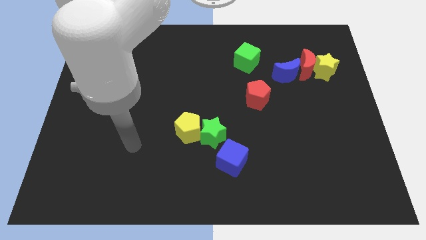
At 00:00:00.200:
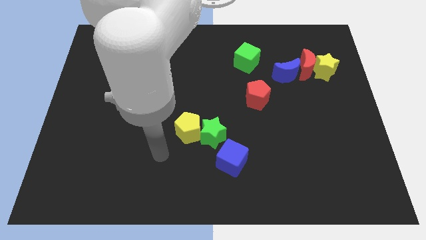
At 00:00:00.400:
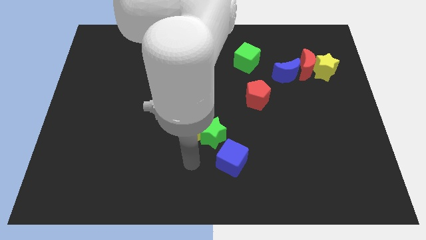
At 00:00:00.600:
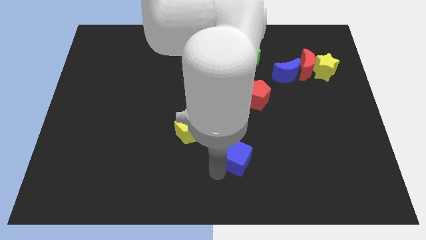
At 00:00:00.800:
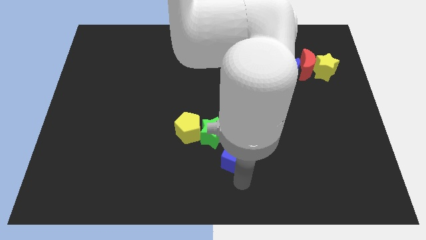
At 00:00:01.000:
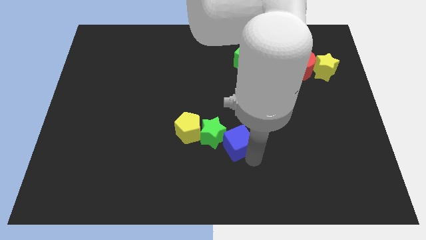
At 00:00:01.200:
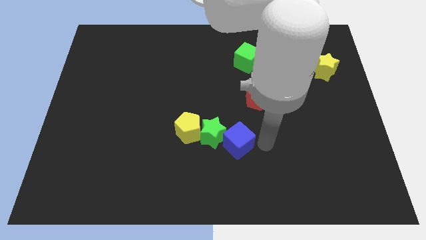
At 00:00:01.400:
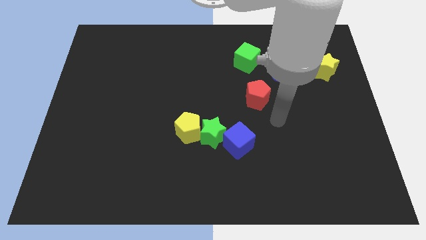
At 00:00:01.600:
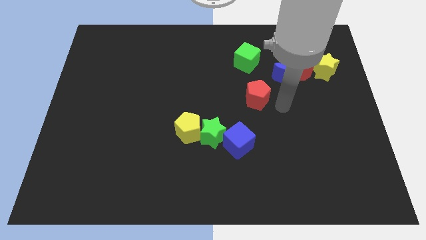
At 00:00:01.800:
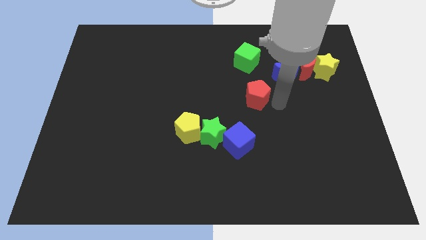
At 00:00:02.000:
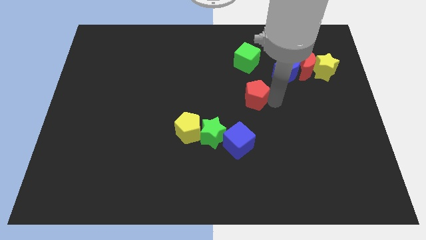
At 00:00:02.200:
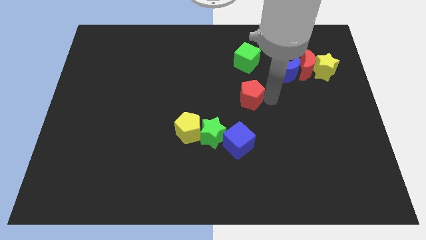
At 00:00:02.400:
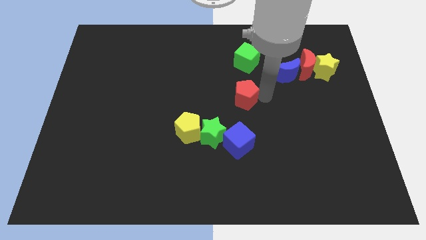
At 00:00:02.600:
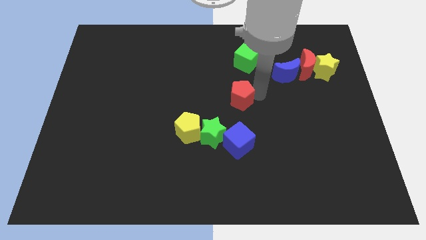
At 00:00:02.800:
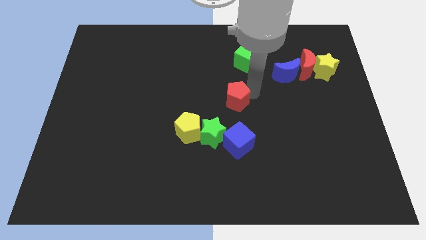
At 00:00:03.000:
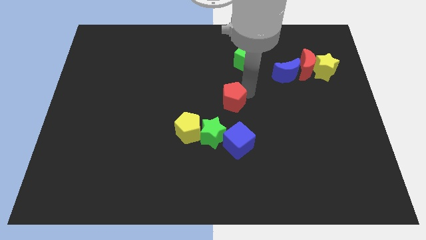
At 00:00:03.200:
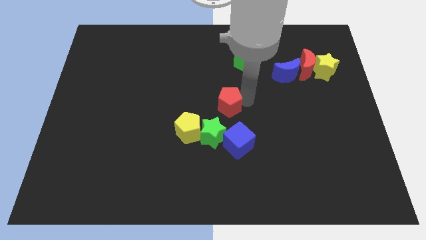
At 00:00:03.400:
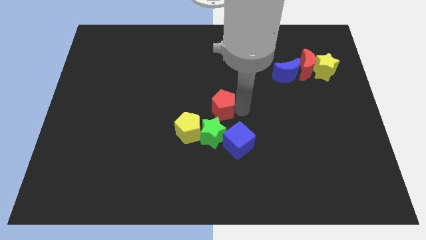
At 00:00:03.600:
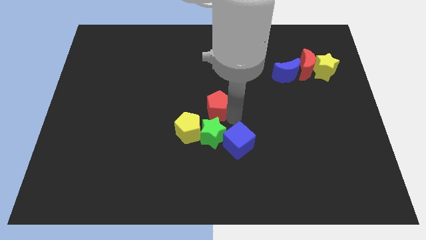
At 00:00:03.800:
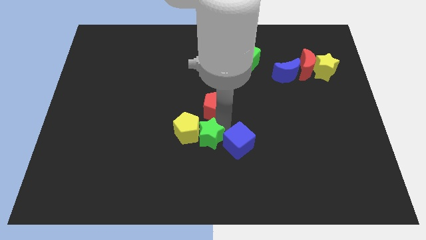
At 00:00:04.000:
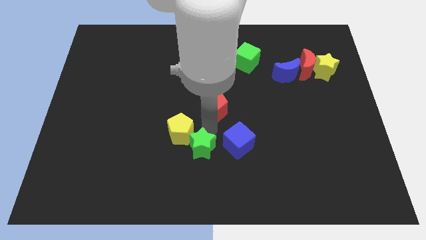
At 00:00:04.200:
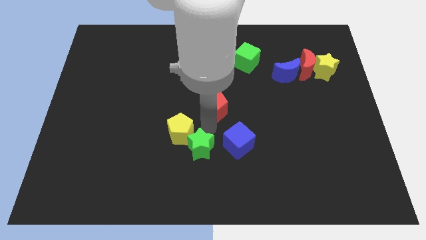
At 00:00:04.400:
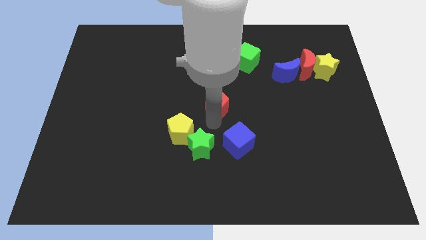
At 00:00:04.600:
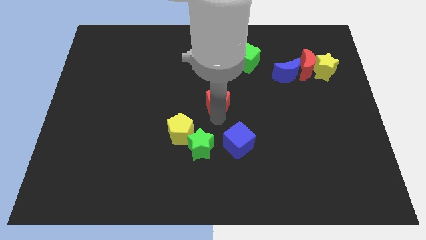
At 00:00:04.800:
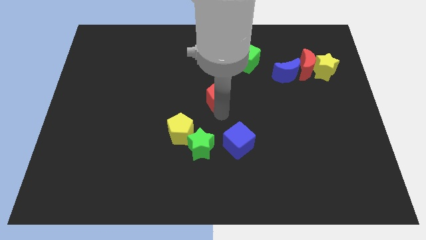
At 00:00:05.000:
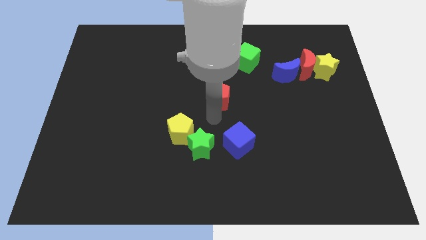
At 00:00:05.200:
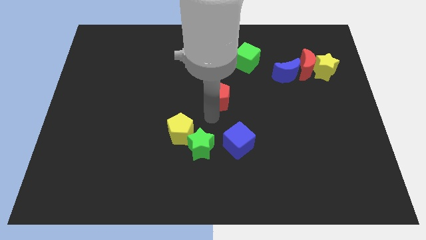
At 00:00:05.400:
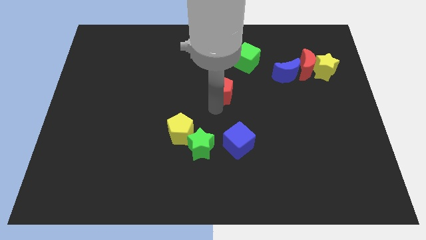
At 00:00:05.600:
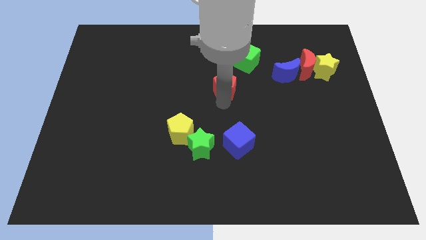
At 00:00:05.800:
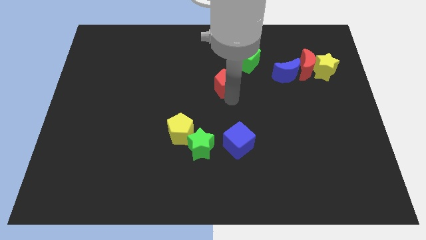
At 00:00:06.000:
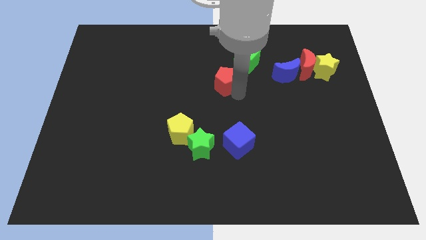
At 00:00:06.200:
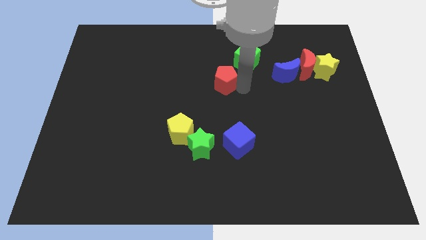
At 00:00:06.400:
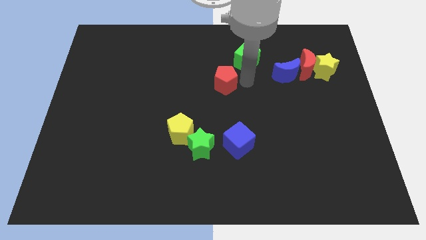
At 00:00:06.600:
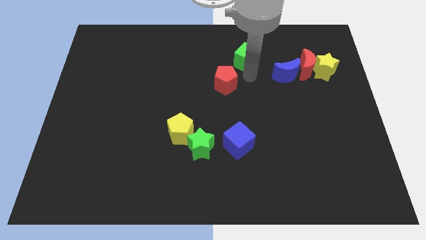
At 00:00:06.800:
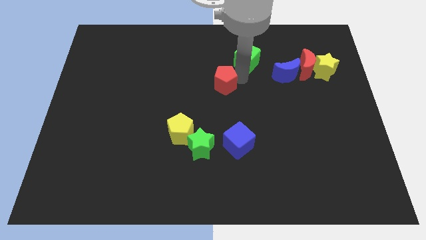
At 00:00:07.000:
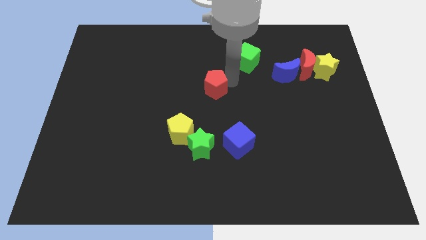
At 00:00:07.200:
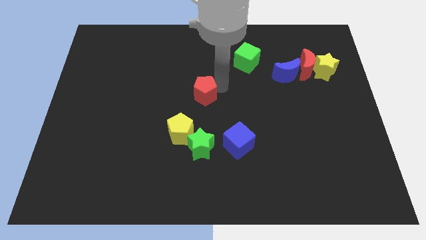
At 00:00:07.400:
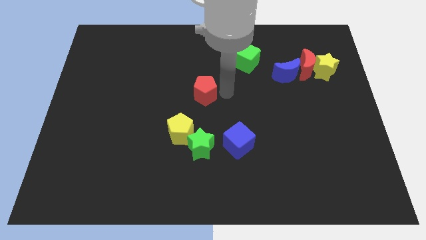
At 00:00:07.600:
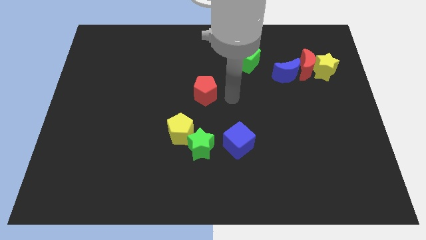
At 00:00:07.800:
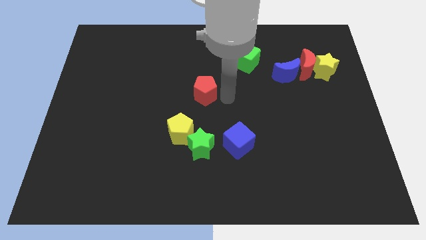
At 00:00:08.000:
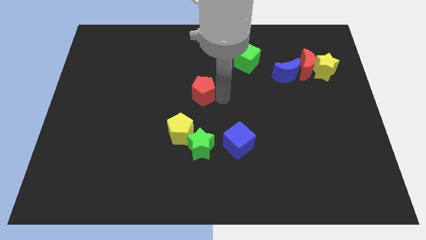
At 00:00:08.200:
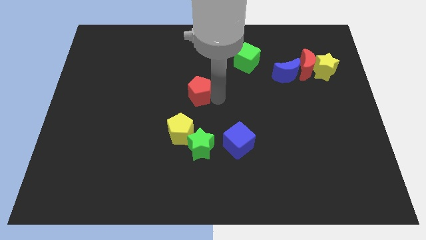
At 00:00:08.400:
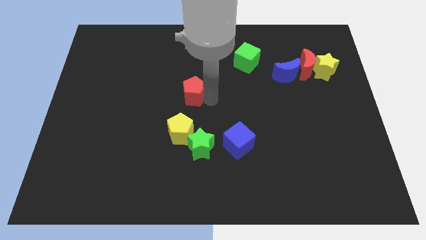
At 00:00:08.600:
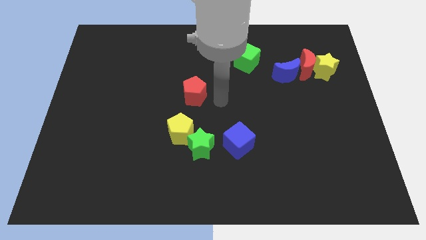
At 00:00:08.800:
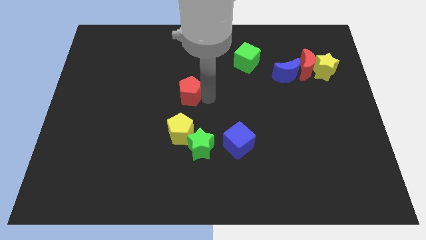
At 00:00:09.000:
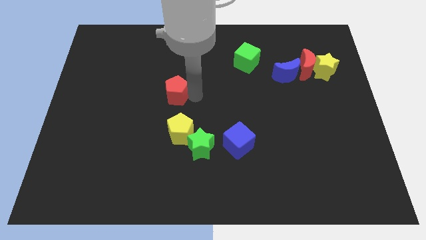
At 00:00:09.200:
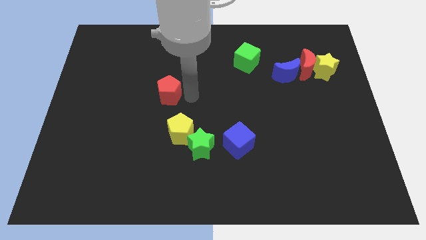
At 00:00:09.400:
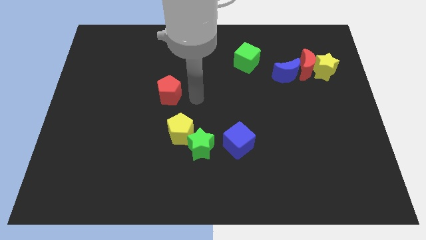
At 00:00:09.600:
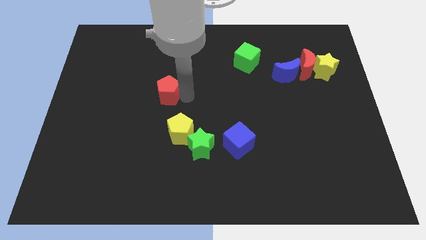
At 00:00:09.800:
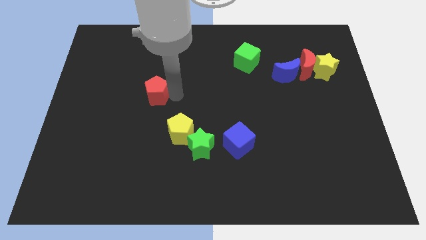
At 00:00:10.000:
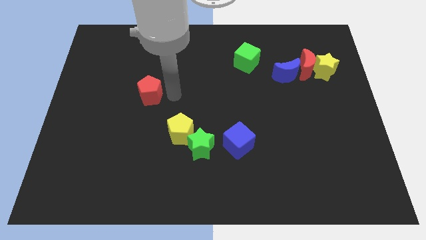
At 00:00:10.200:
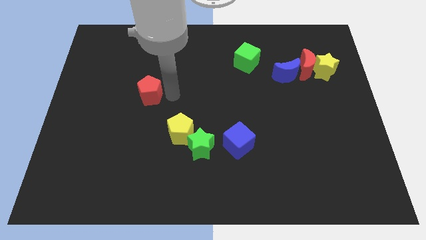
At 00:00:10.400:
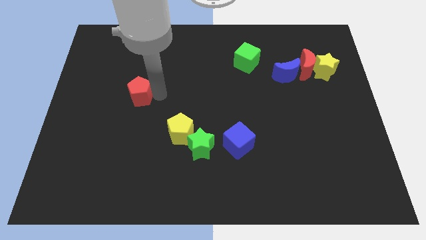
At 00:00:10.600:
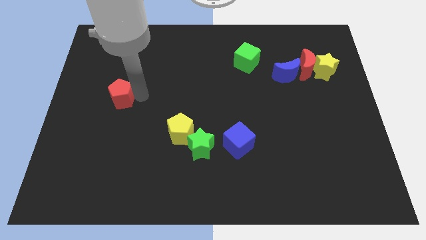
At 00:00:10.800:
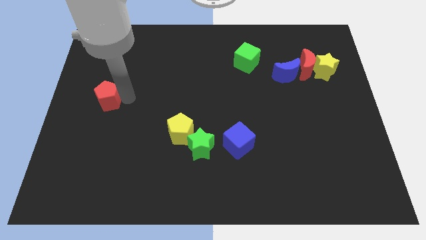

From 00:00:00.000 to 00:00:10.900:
push the red pentagon to the left side

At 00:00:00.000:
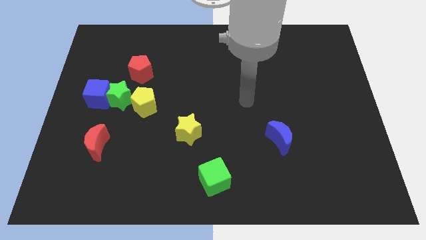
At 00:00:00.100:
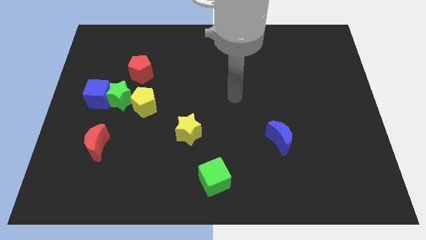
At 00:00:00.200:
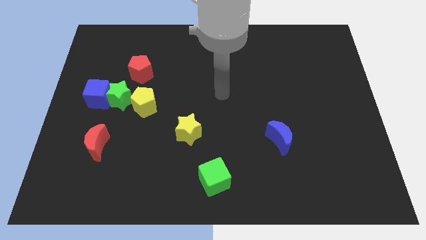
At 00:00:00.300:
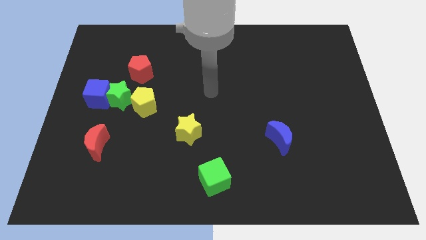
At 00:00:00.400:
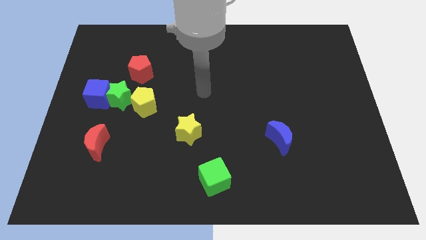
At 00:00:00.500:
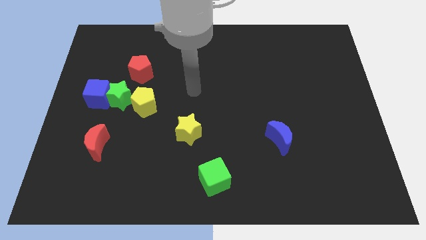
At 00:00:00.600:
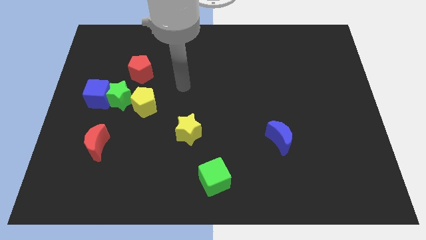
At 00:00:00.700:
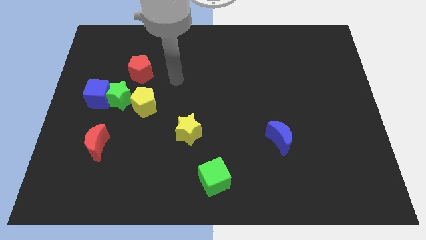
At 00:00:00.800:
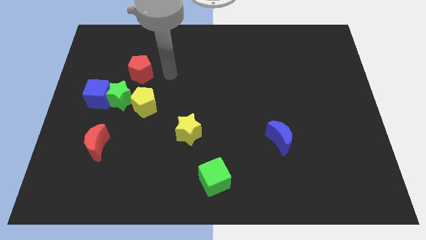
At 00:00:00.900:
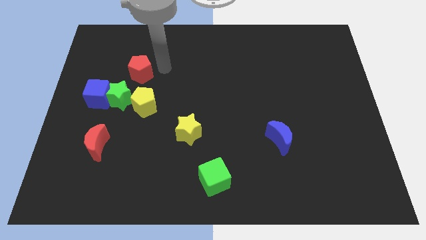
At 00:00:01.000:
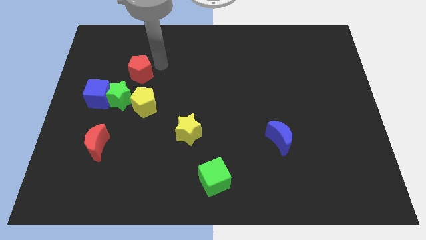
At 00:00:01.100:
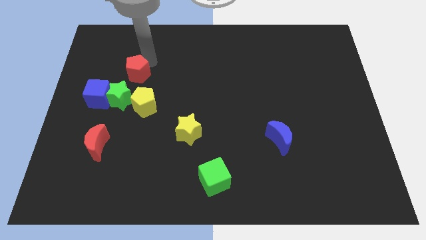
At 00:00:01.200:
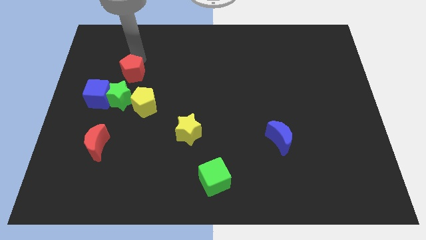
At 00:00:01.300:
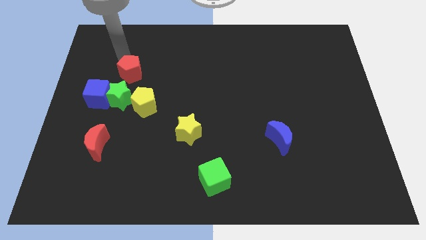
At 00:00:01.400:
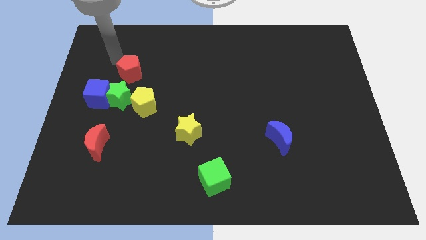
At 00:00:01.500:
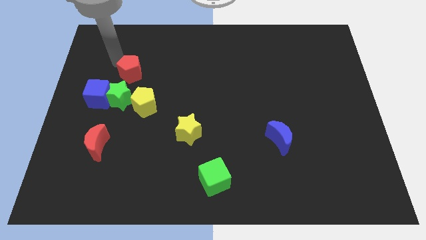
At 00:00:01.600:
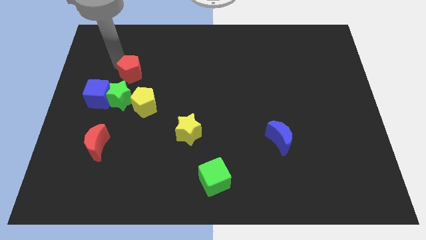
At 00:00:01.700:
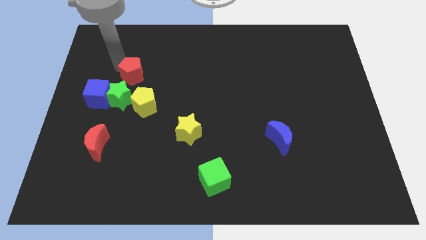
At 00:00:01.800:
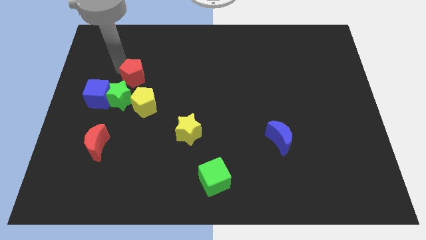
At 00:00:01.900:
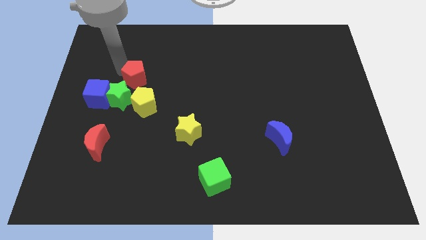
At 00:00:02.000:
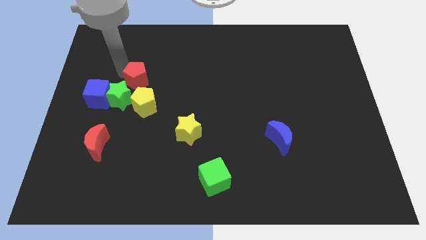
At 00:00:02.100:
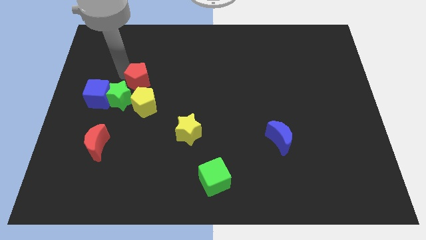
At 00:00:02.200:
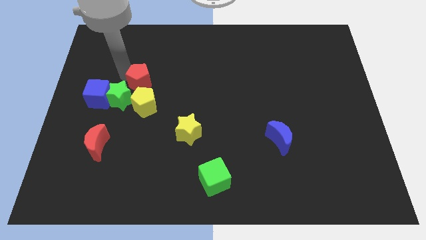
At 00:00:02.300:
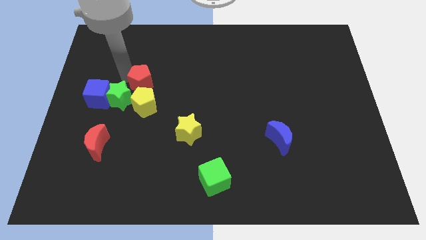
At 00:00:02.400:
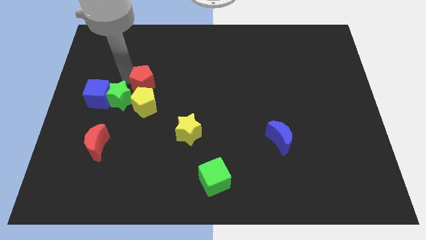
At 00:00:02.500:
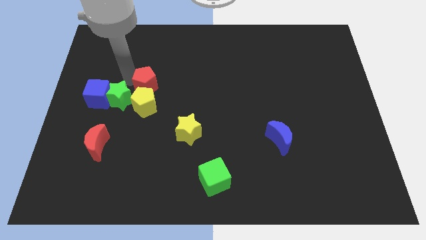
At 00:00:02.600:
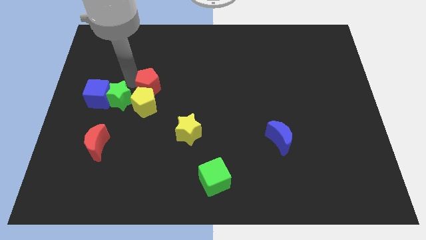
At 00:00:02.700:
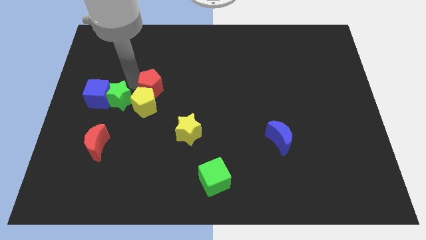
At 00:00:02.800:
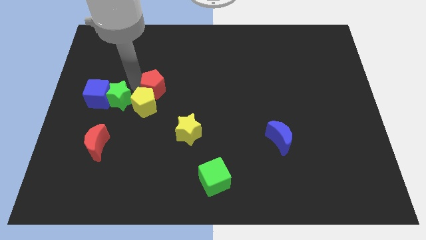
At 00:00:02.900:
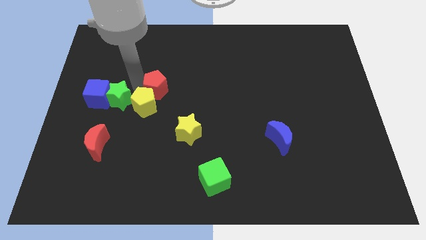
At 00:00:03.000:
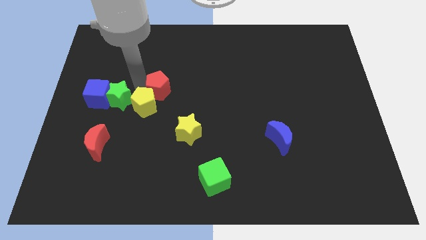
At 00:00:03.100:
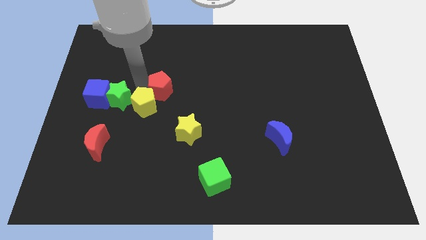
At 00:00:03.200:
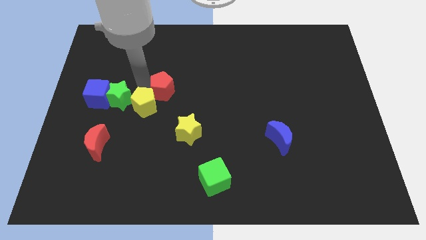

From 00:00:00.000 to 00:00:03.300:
move the red pentagon to the middle
